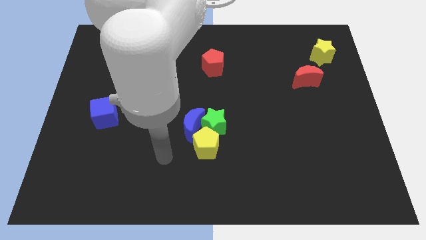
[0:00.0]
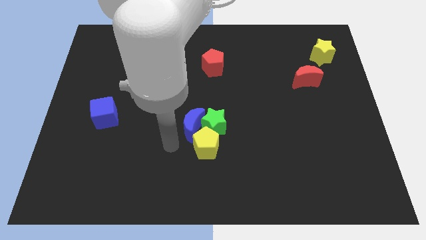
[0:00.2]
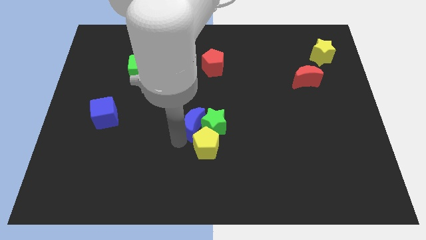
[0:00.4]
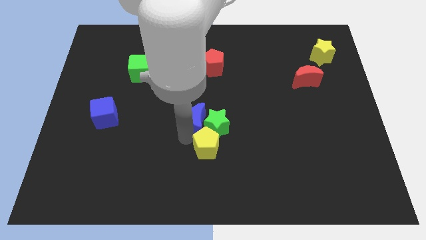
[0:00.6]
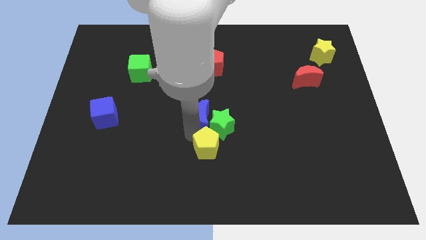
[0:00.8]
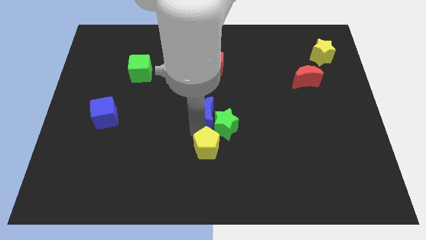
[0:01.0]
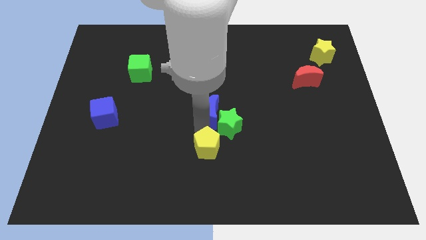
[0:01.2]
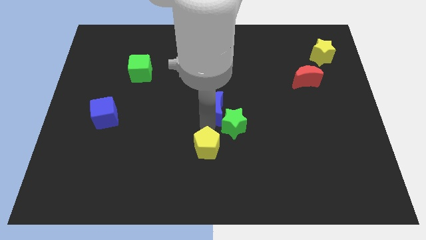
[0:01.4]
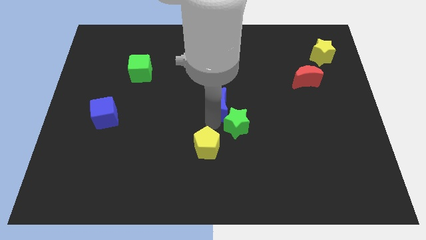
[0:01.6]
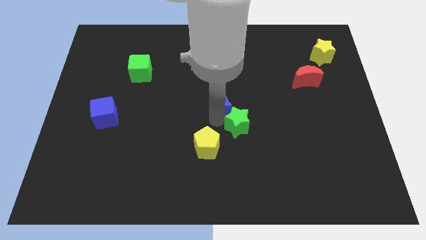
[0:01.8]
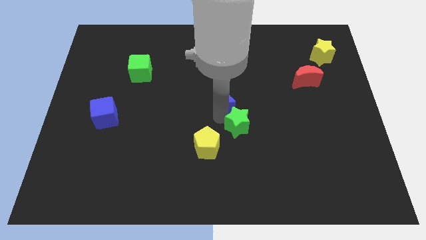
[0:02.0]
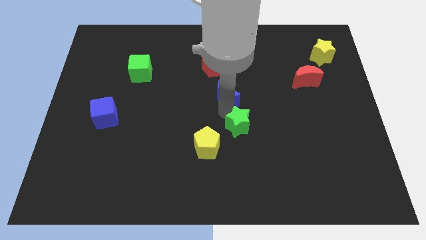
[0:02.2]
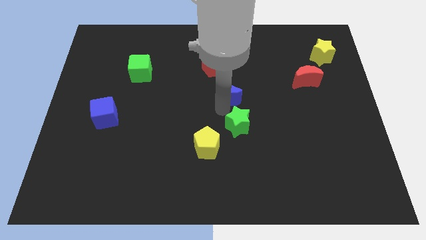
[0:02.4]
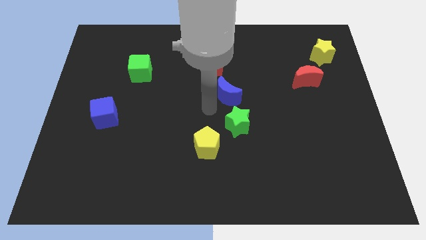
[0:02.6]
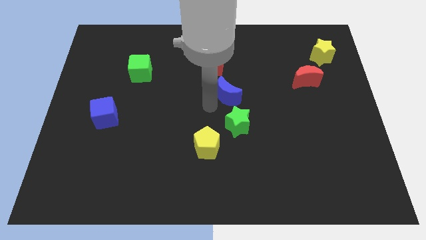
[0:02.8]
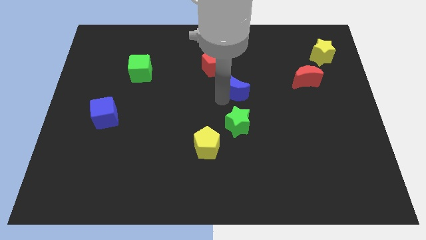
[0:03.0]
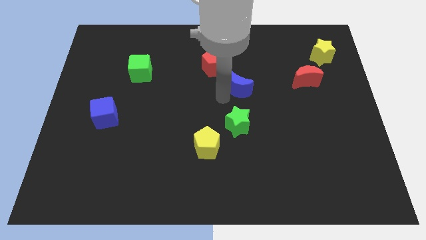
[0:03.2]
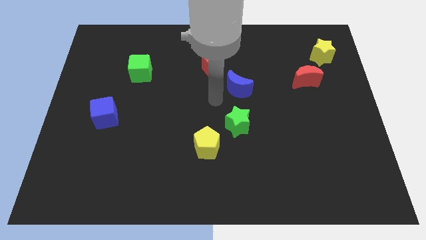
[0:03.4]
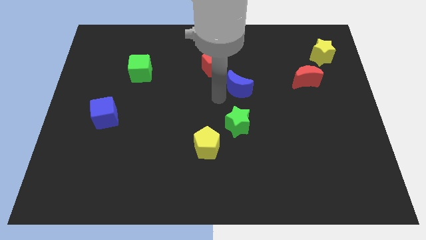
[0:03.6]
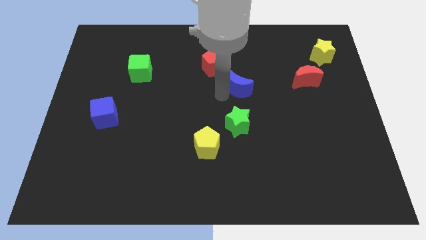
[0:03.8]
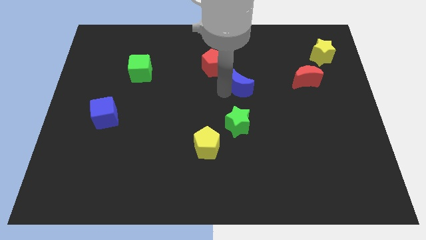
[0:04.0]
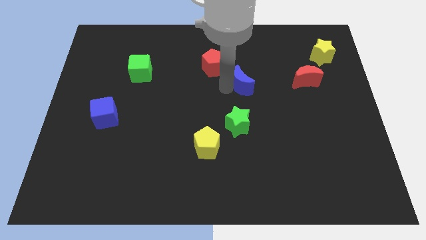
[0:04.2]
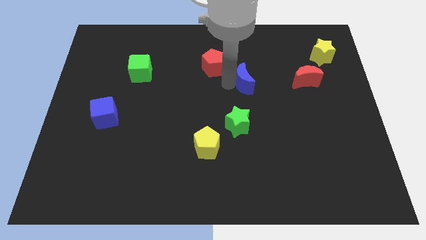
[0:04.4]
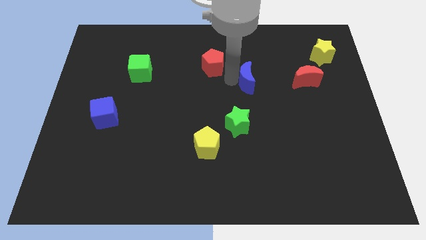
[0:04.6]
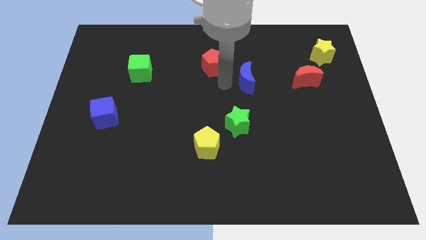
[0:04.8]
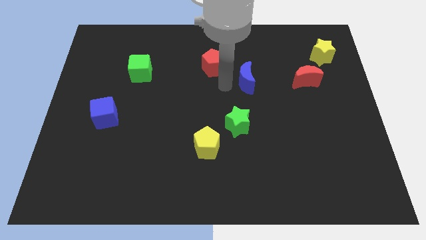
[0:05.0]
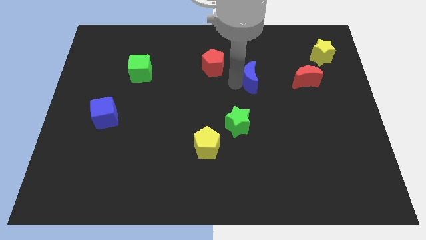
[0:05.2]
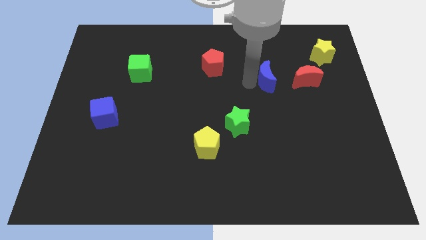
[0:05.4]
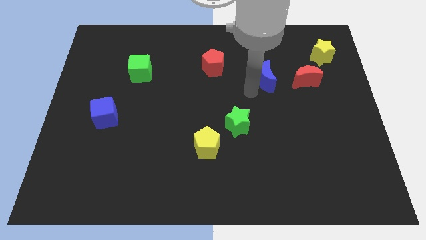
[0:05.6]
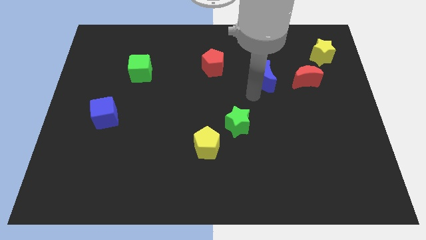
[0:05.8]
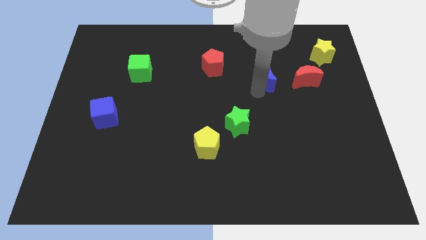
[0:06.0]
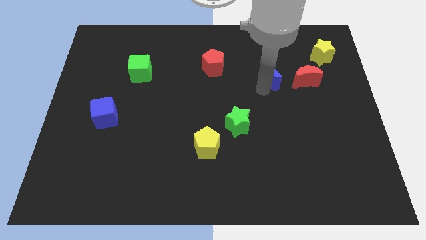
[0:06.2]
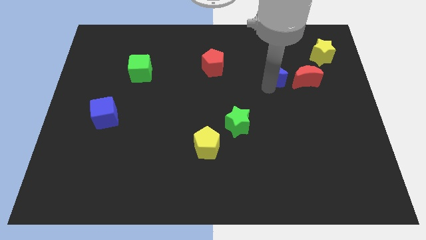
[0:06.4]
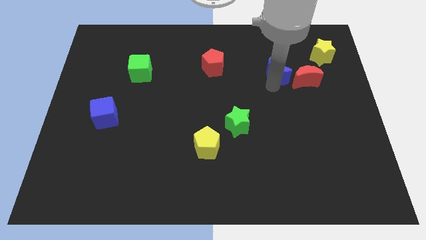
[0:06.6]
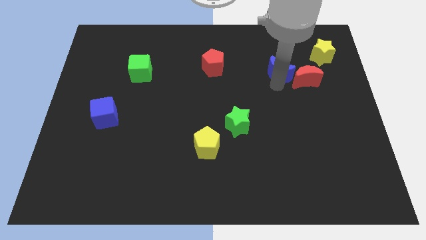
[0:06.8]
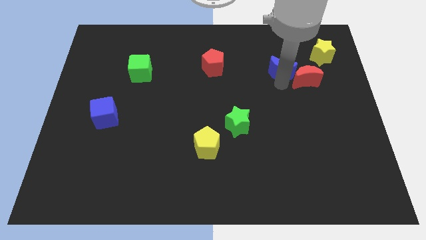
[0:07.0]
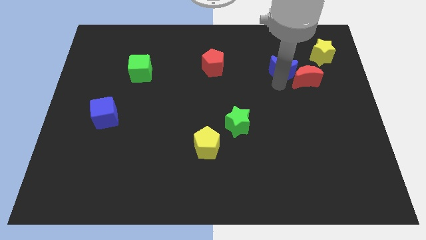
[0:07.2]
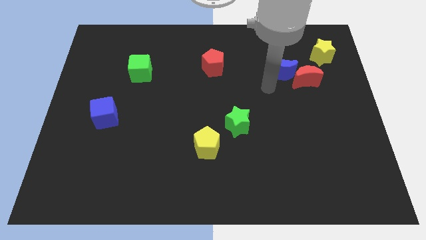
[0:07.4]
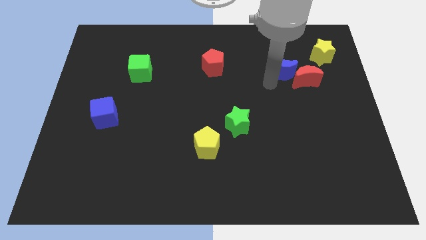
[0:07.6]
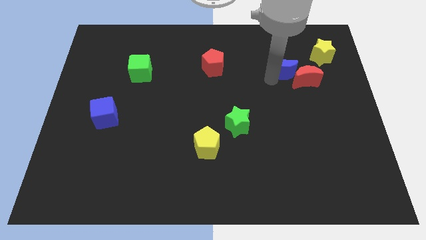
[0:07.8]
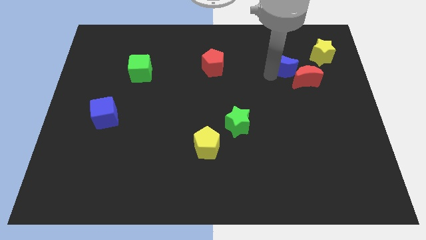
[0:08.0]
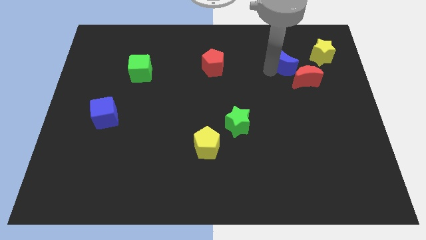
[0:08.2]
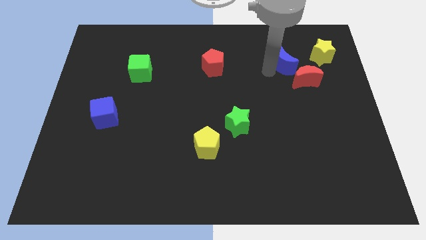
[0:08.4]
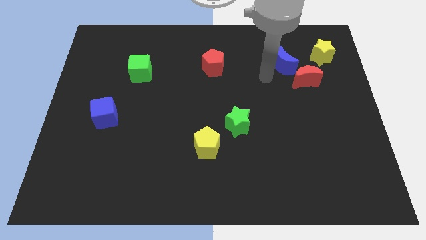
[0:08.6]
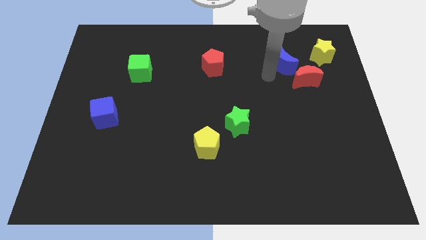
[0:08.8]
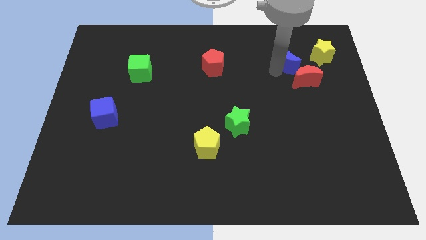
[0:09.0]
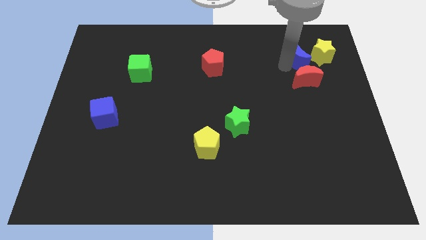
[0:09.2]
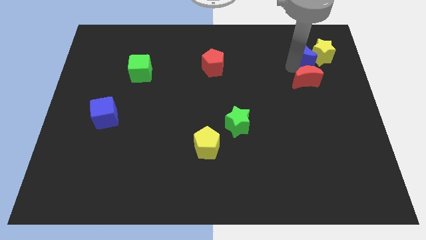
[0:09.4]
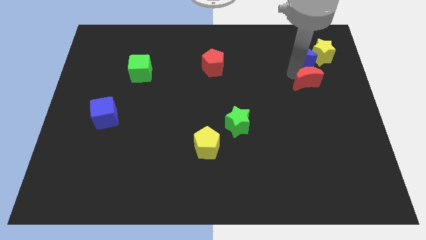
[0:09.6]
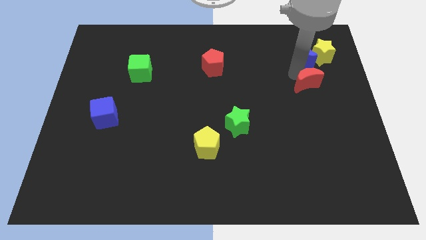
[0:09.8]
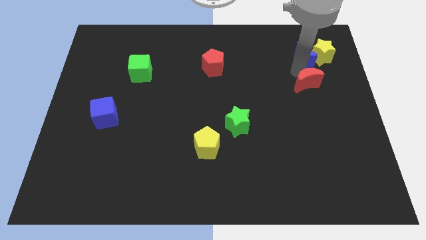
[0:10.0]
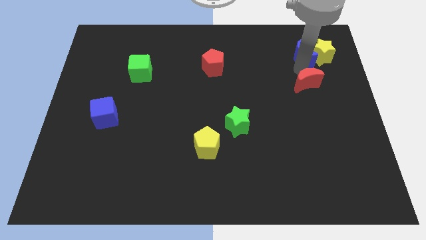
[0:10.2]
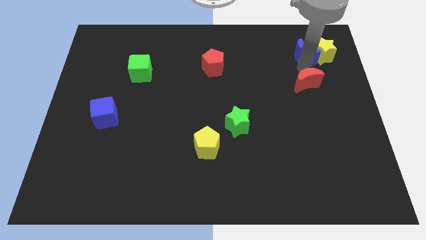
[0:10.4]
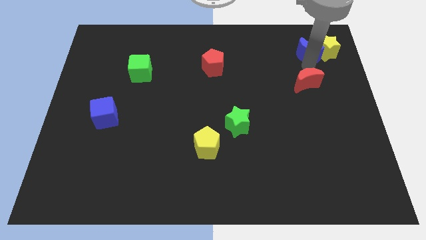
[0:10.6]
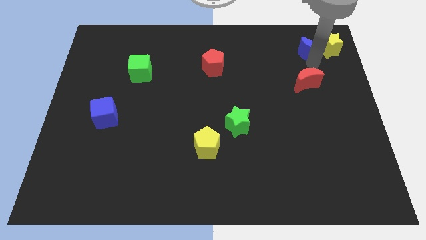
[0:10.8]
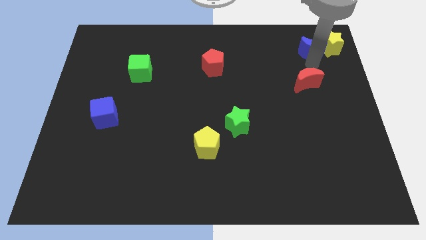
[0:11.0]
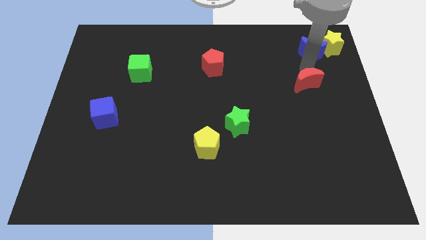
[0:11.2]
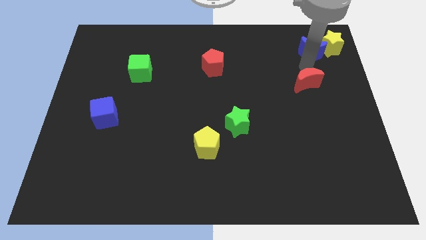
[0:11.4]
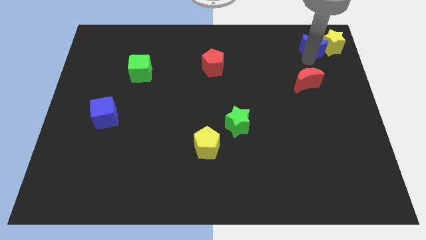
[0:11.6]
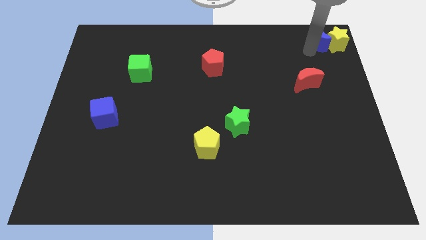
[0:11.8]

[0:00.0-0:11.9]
move the blue moon to the top right corner
